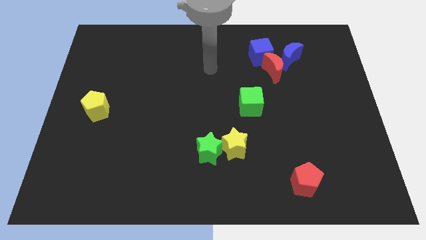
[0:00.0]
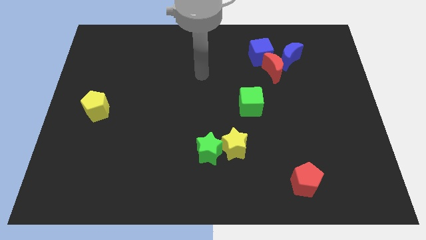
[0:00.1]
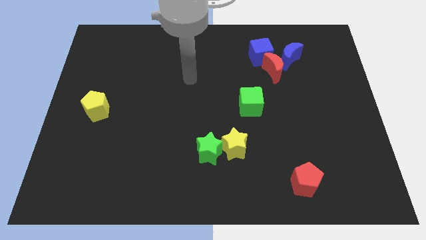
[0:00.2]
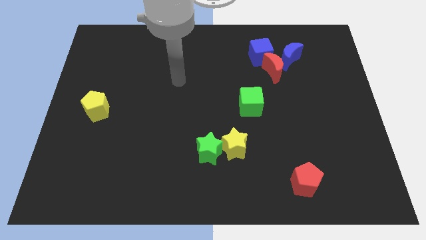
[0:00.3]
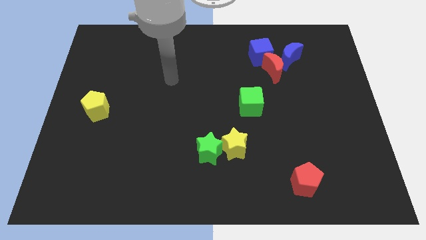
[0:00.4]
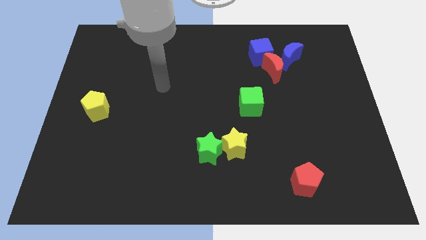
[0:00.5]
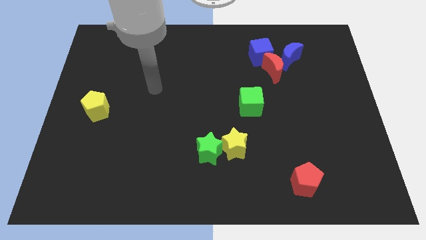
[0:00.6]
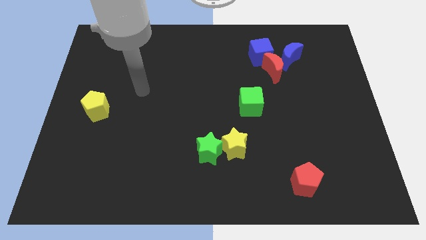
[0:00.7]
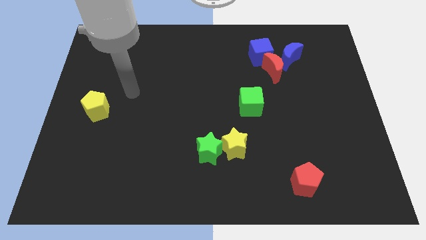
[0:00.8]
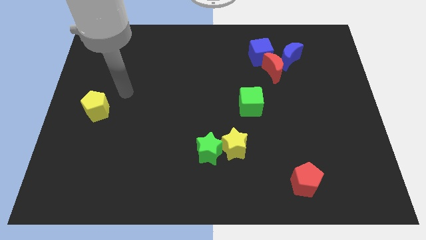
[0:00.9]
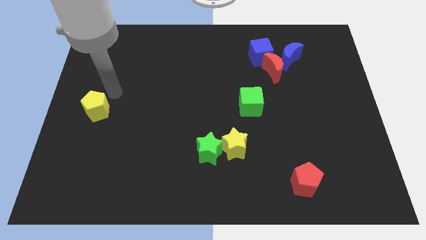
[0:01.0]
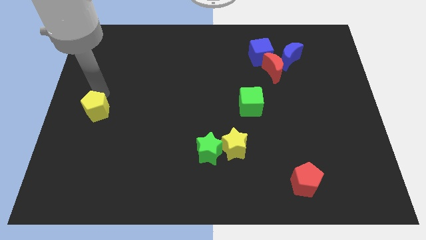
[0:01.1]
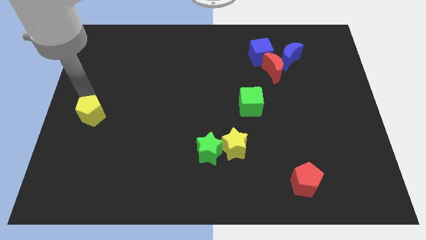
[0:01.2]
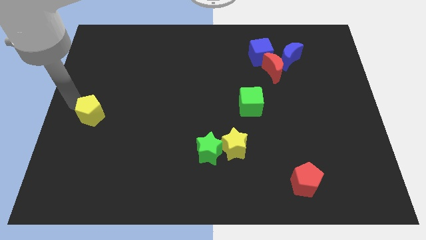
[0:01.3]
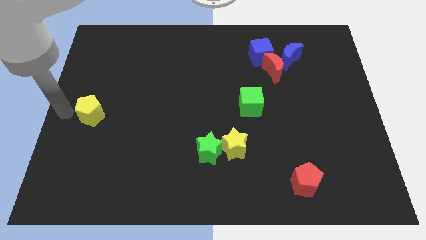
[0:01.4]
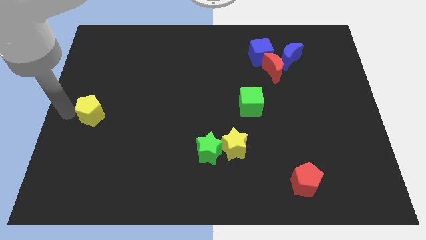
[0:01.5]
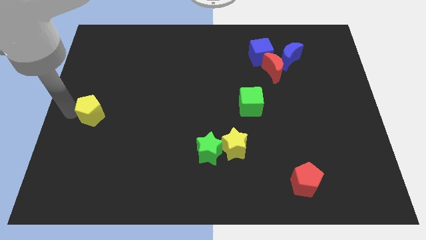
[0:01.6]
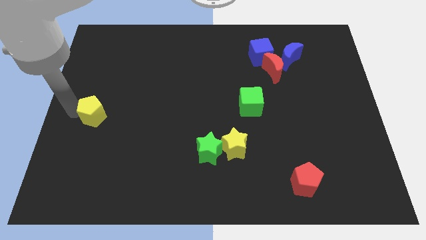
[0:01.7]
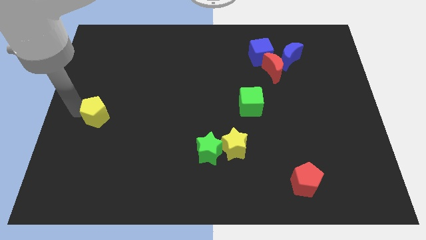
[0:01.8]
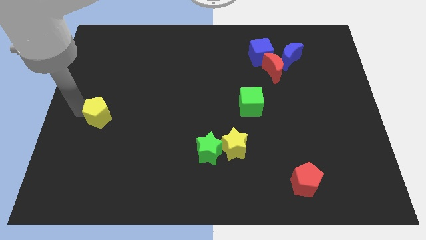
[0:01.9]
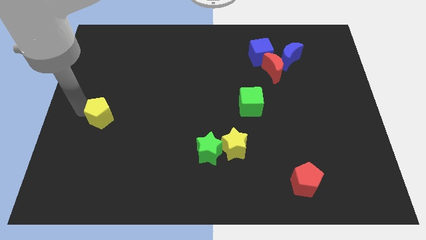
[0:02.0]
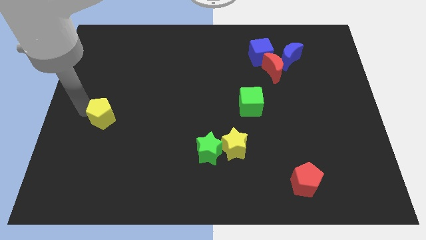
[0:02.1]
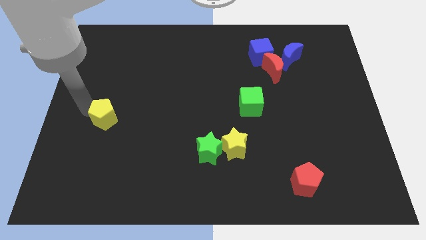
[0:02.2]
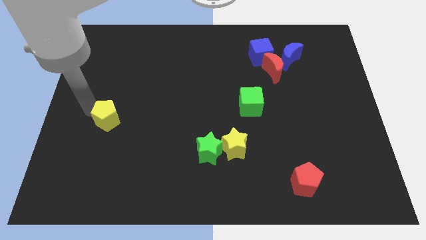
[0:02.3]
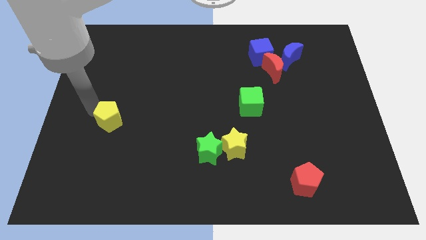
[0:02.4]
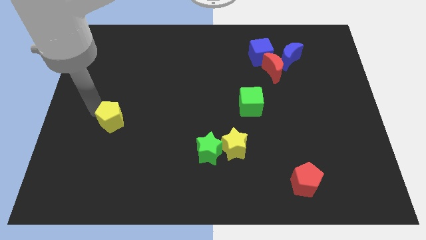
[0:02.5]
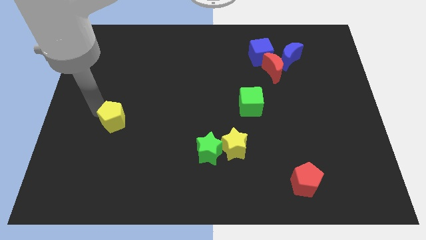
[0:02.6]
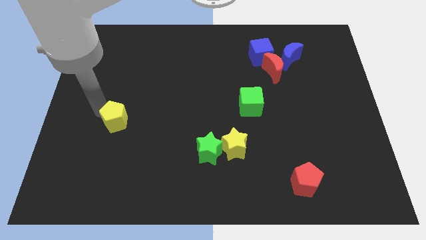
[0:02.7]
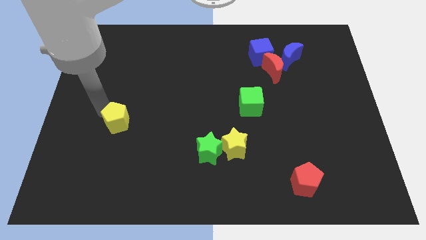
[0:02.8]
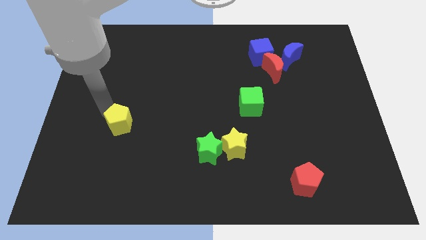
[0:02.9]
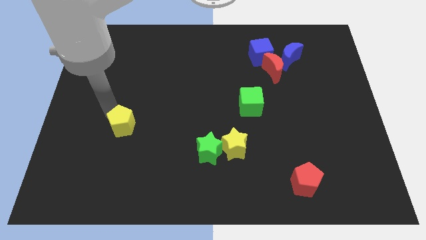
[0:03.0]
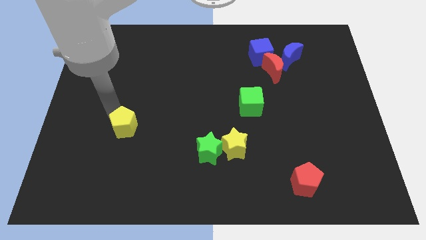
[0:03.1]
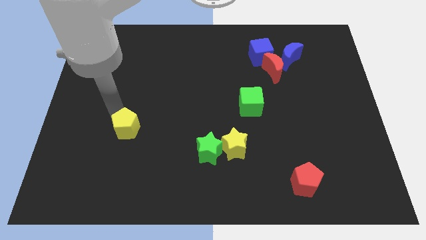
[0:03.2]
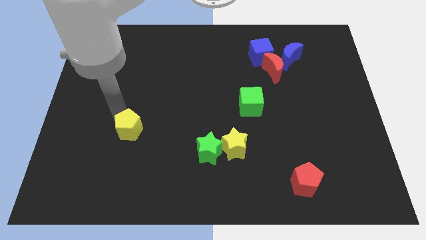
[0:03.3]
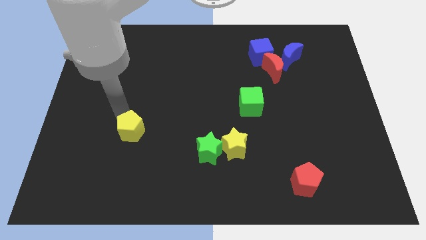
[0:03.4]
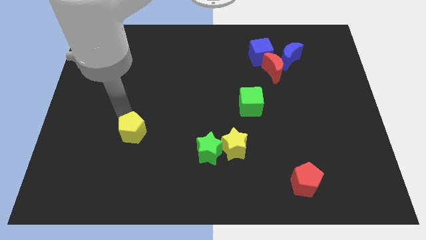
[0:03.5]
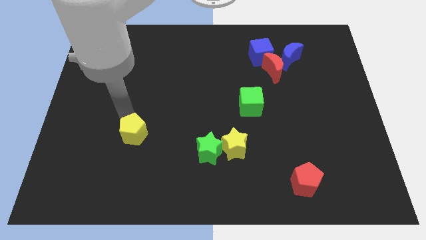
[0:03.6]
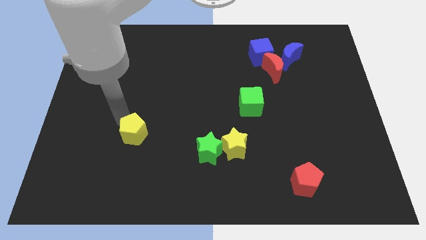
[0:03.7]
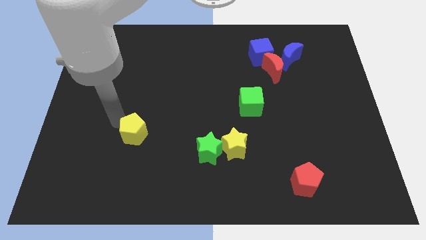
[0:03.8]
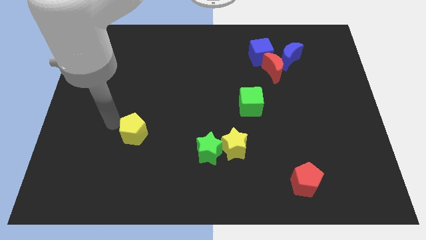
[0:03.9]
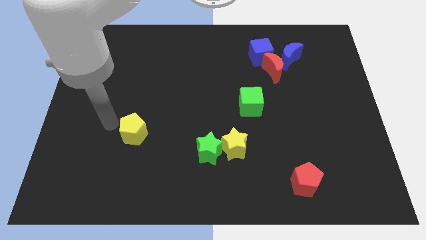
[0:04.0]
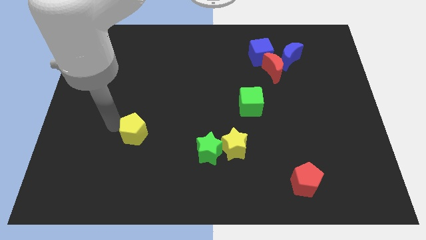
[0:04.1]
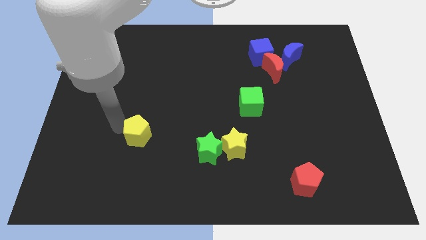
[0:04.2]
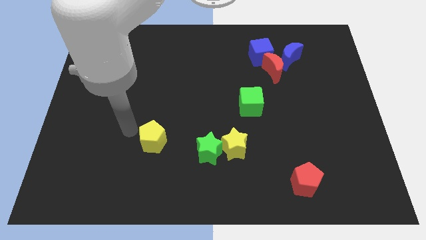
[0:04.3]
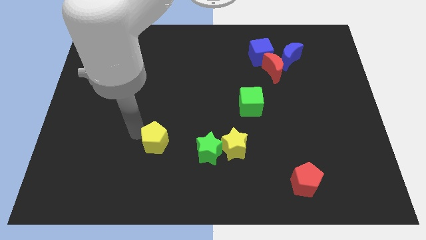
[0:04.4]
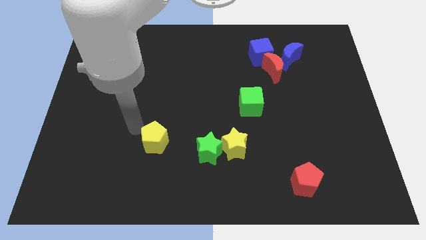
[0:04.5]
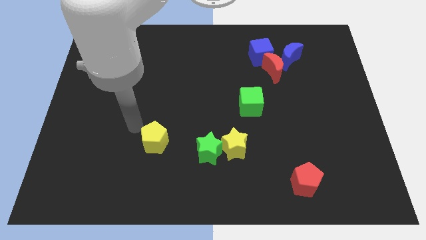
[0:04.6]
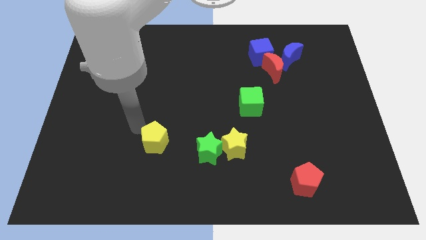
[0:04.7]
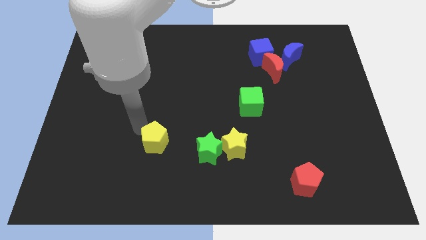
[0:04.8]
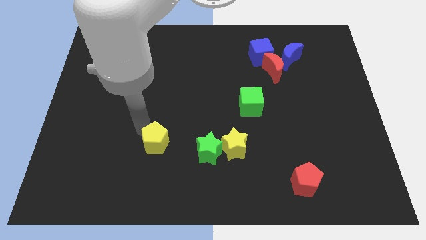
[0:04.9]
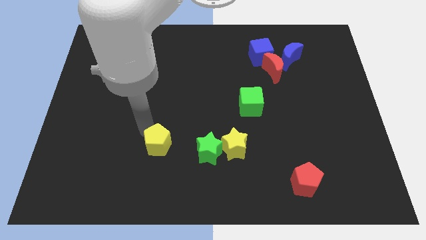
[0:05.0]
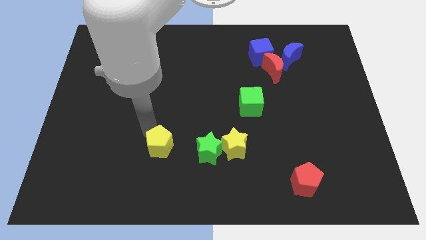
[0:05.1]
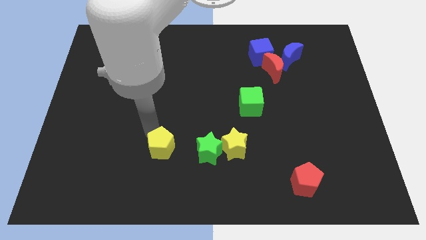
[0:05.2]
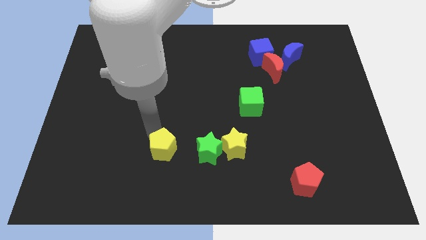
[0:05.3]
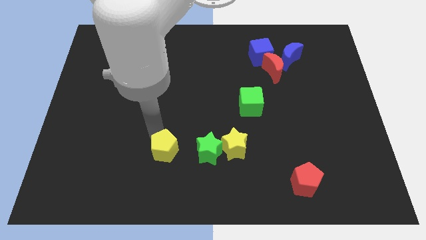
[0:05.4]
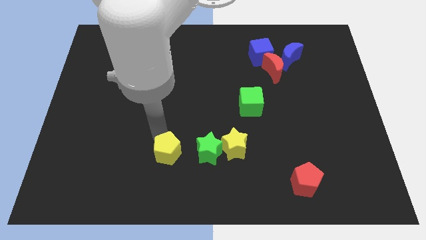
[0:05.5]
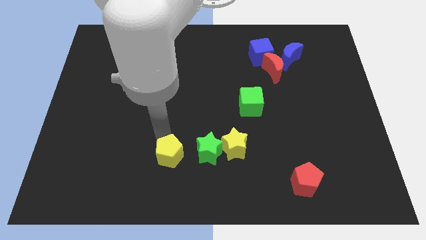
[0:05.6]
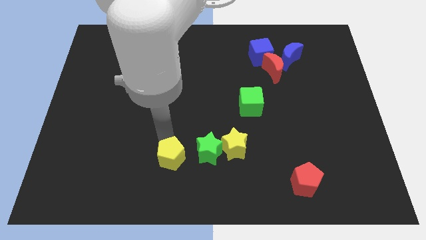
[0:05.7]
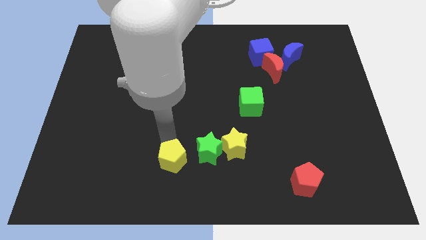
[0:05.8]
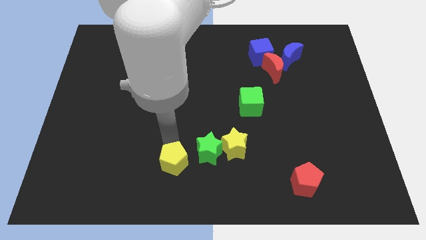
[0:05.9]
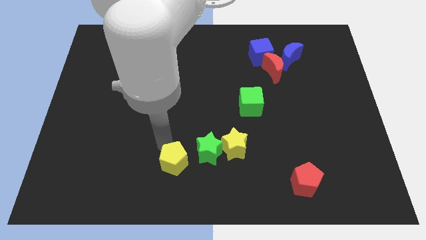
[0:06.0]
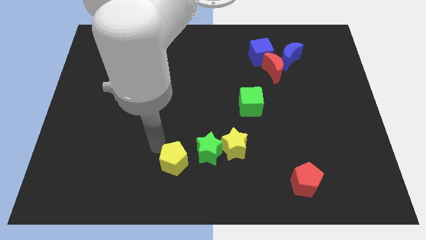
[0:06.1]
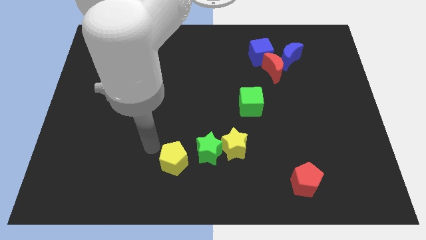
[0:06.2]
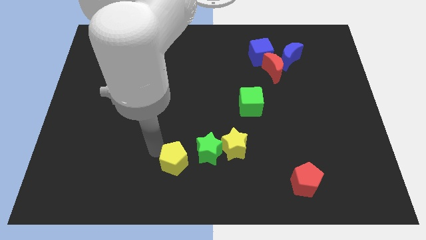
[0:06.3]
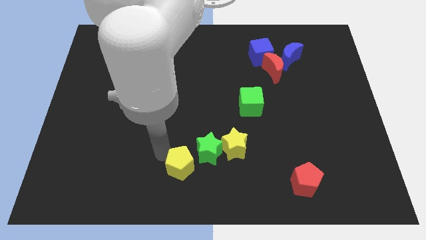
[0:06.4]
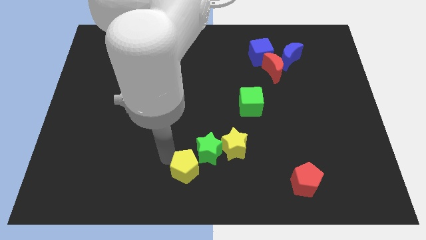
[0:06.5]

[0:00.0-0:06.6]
push the yellow pentagon diagonally down and to the left of the yellow star

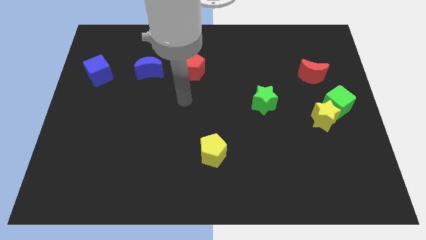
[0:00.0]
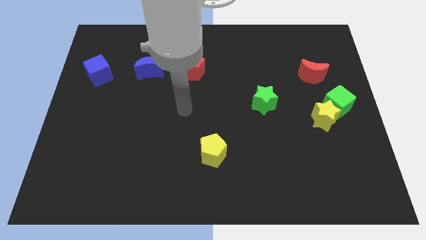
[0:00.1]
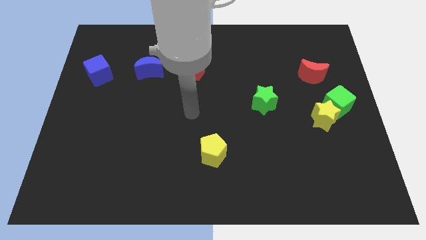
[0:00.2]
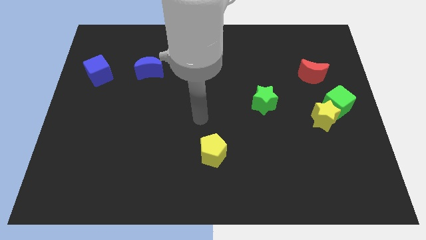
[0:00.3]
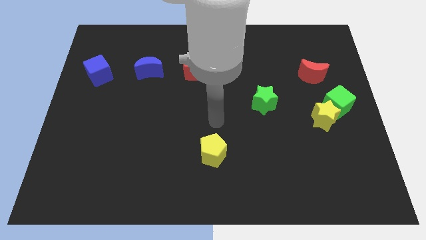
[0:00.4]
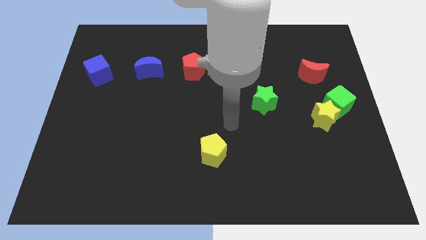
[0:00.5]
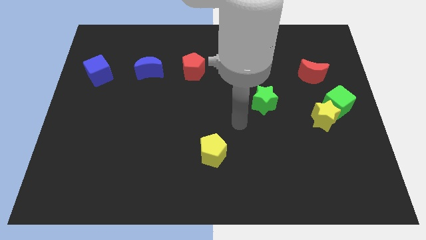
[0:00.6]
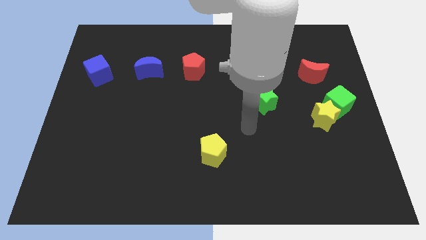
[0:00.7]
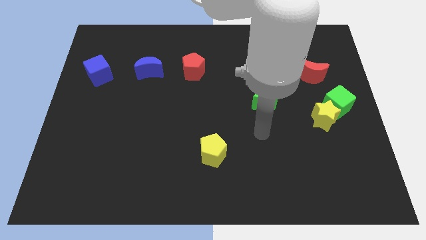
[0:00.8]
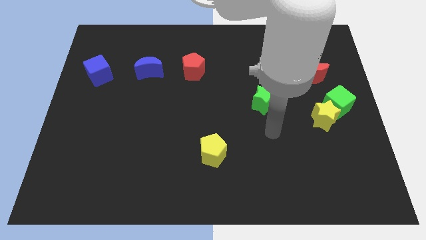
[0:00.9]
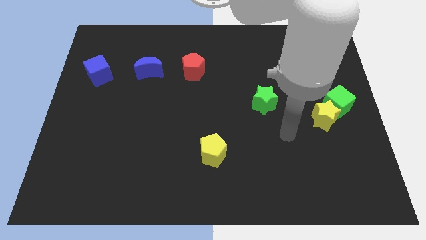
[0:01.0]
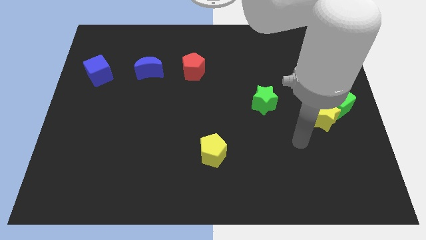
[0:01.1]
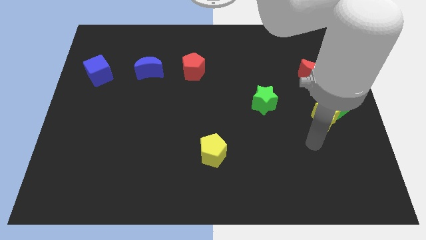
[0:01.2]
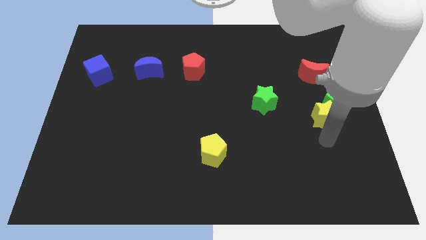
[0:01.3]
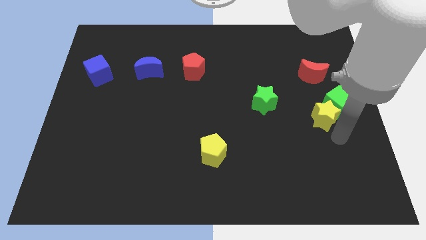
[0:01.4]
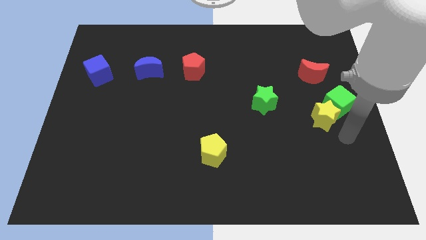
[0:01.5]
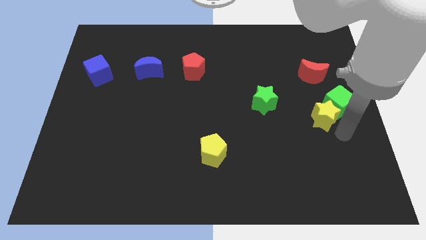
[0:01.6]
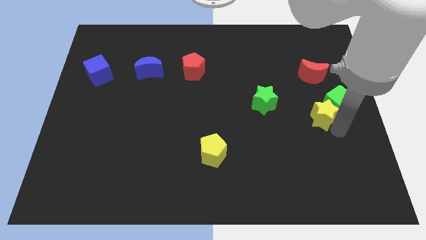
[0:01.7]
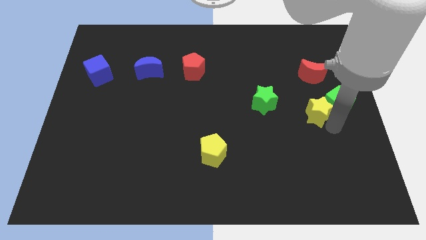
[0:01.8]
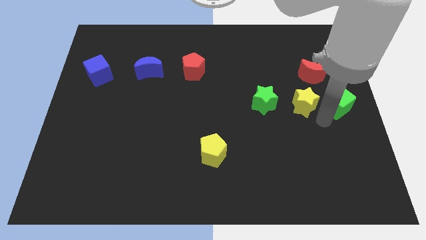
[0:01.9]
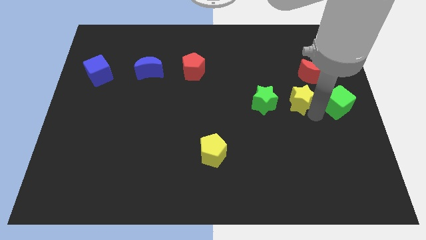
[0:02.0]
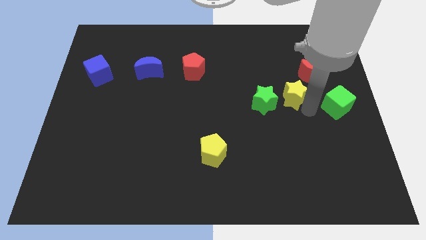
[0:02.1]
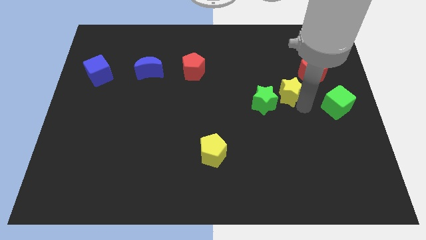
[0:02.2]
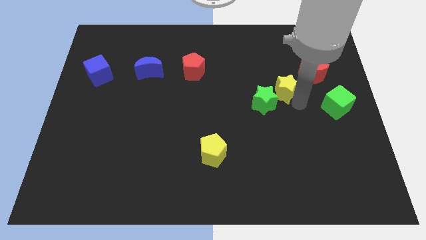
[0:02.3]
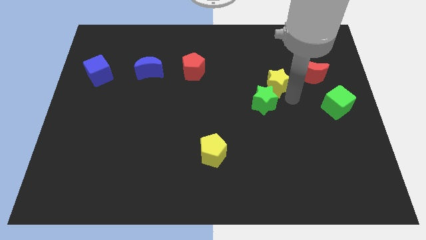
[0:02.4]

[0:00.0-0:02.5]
push the yellow star above the green star
